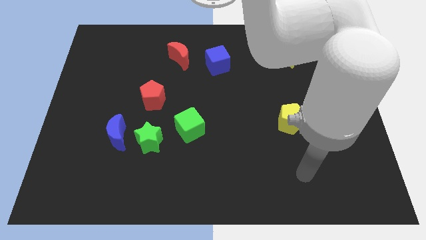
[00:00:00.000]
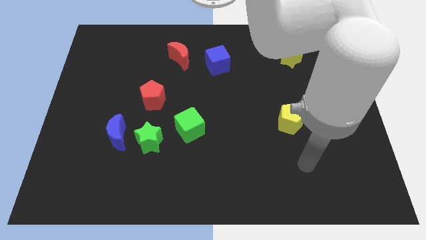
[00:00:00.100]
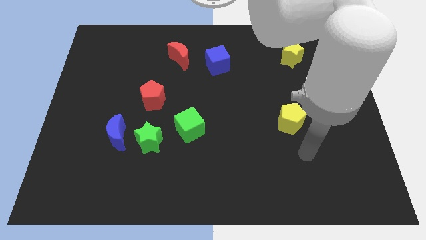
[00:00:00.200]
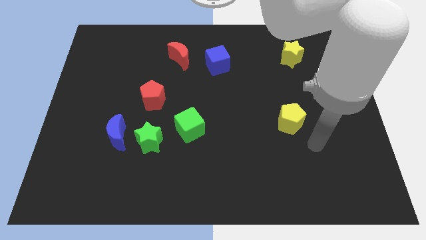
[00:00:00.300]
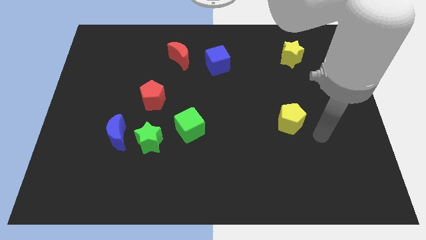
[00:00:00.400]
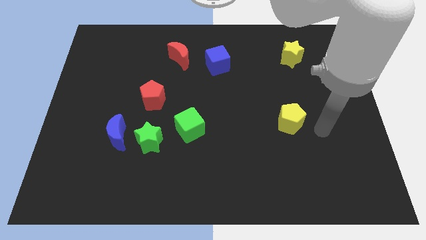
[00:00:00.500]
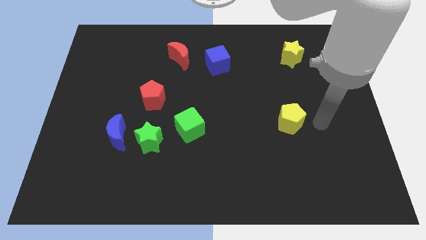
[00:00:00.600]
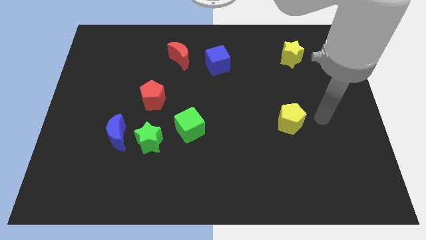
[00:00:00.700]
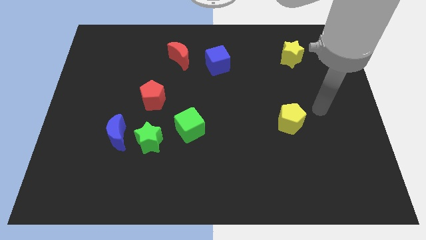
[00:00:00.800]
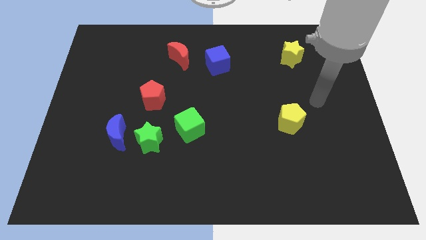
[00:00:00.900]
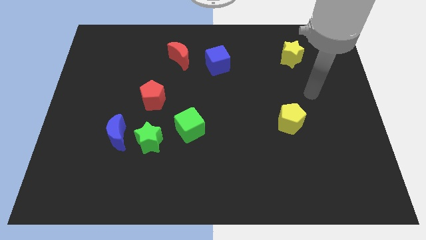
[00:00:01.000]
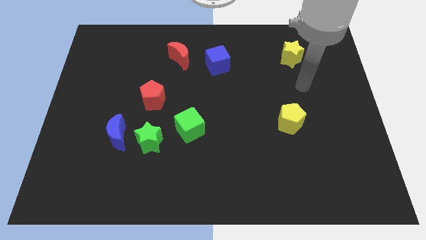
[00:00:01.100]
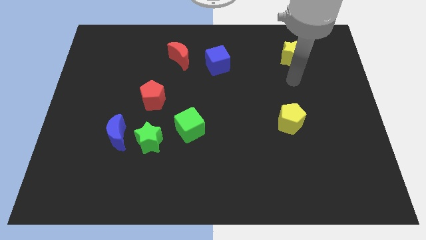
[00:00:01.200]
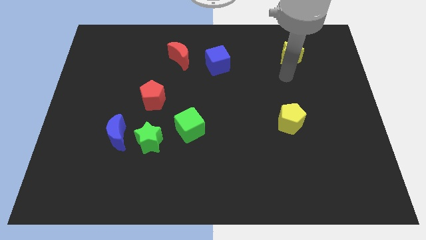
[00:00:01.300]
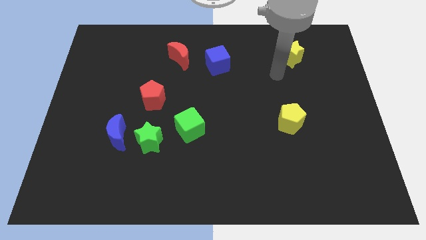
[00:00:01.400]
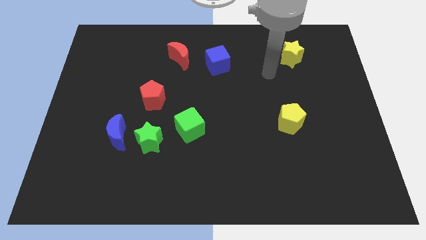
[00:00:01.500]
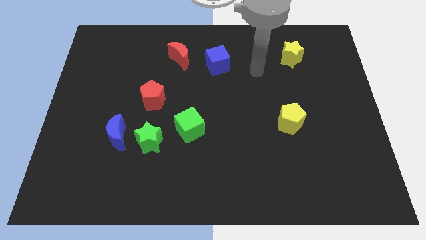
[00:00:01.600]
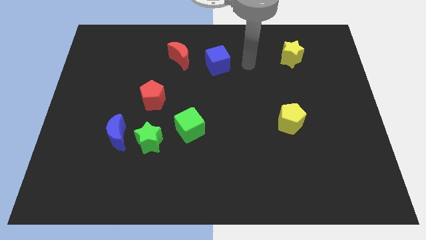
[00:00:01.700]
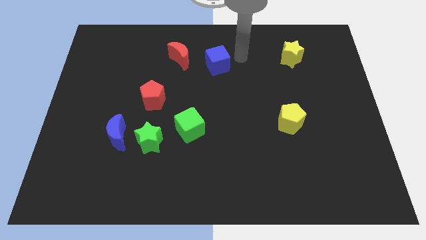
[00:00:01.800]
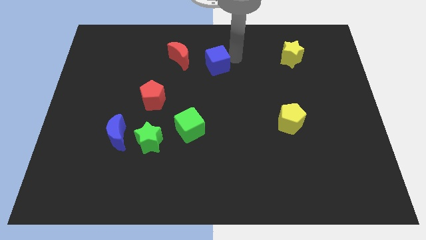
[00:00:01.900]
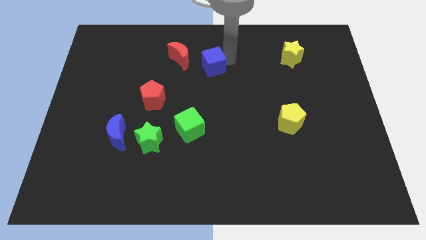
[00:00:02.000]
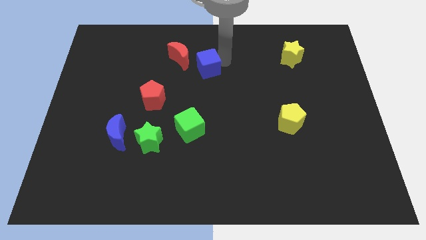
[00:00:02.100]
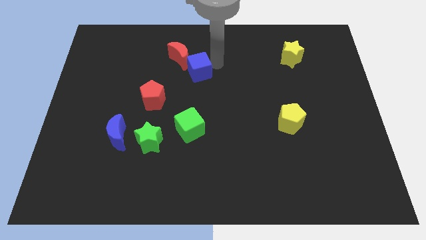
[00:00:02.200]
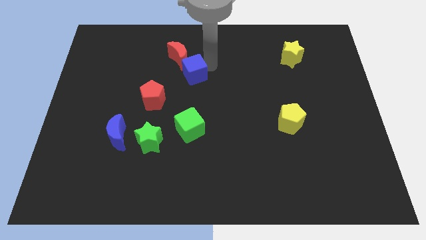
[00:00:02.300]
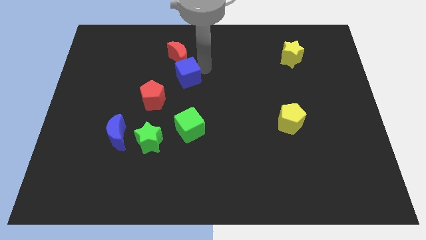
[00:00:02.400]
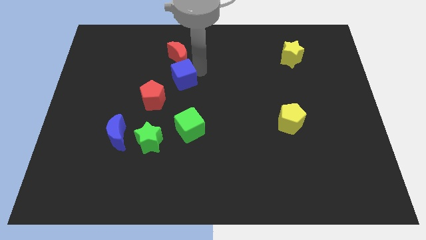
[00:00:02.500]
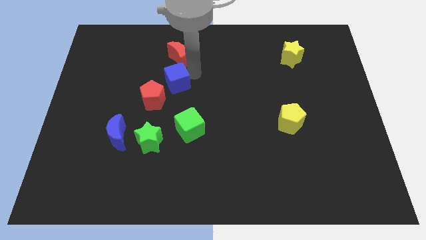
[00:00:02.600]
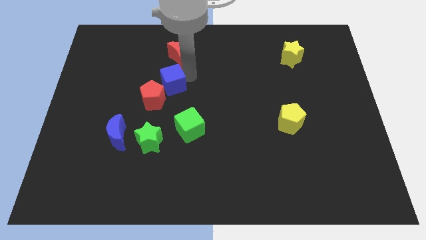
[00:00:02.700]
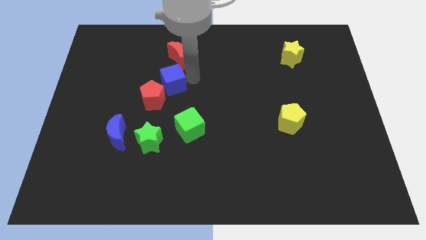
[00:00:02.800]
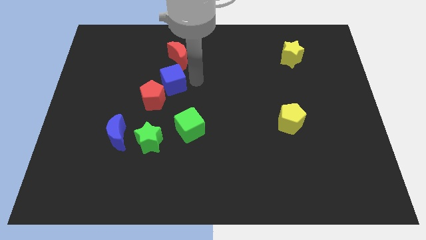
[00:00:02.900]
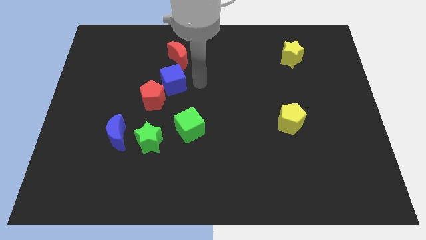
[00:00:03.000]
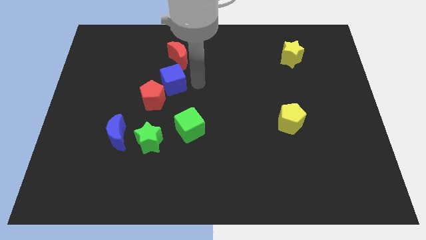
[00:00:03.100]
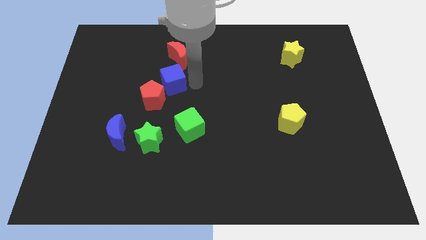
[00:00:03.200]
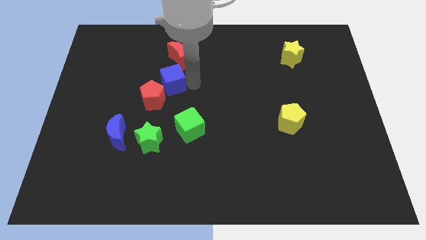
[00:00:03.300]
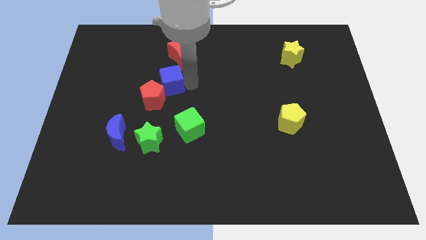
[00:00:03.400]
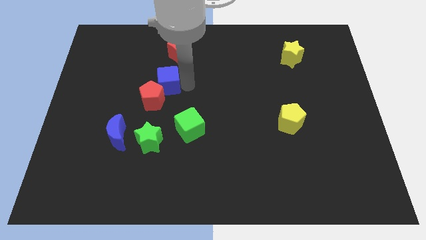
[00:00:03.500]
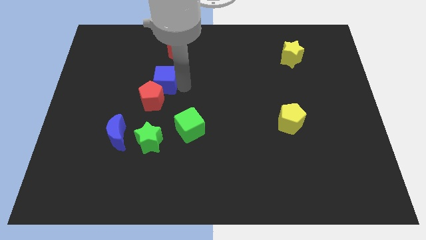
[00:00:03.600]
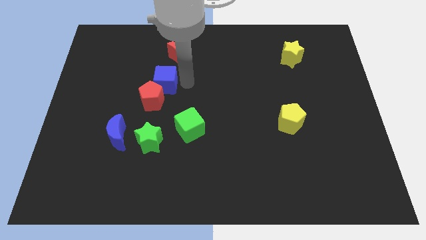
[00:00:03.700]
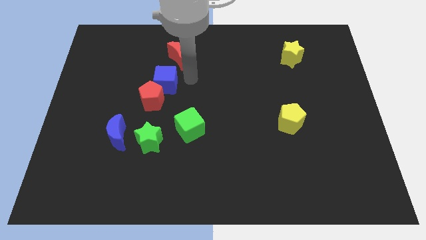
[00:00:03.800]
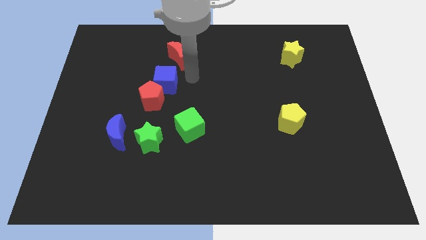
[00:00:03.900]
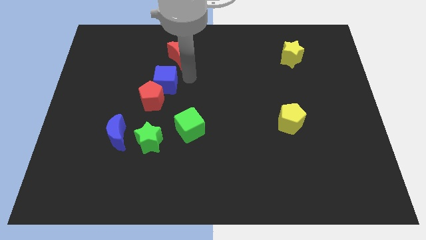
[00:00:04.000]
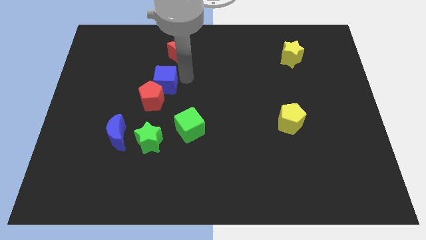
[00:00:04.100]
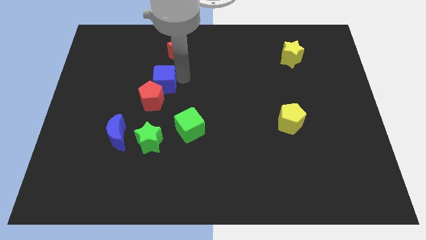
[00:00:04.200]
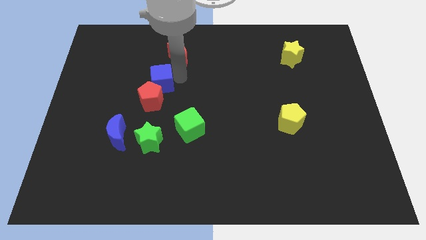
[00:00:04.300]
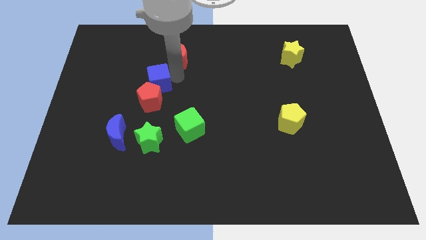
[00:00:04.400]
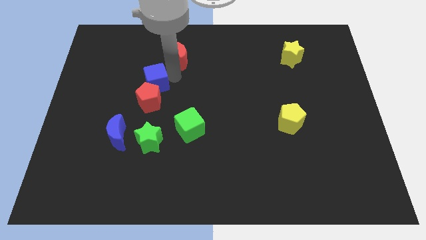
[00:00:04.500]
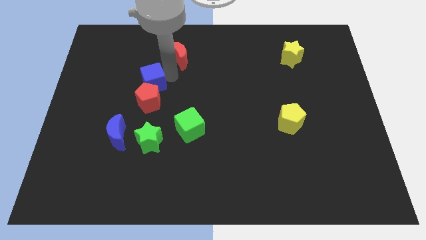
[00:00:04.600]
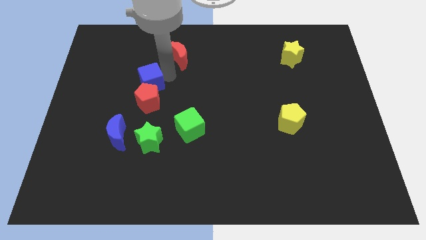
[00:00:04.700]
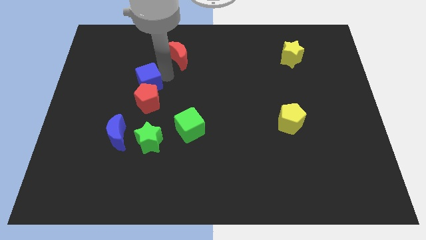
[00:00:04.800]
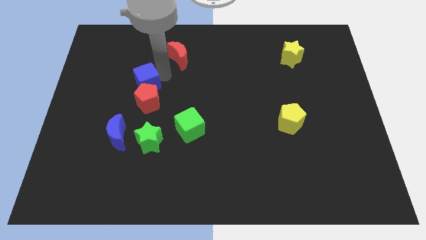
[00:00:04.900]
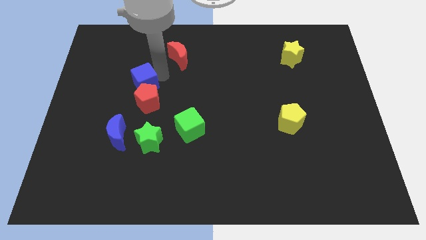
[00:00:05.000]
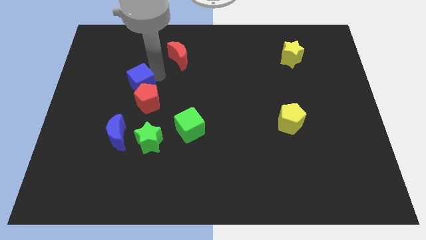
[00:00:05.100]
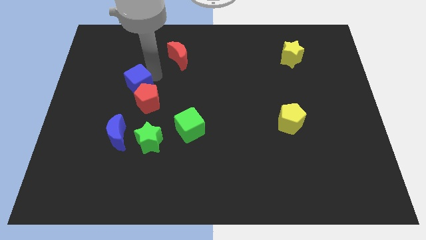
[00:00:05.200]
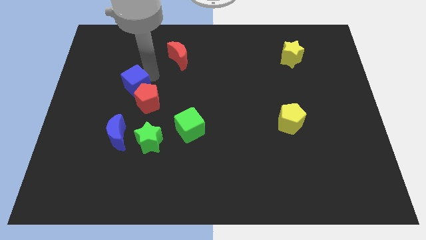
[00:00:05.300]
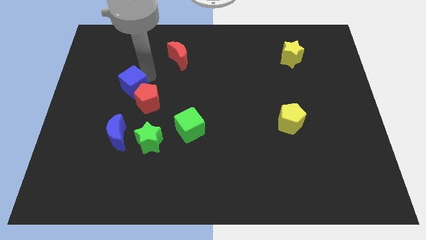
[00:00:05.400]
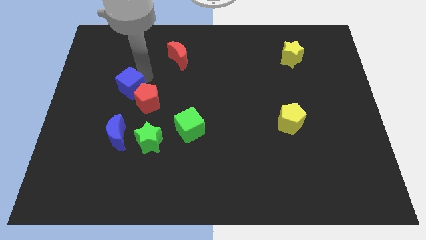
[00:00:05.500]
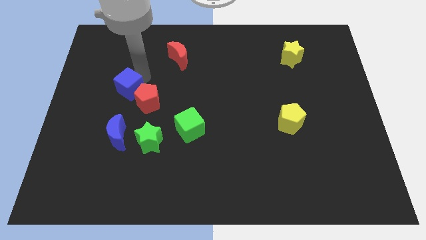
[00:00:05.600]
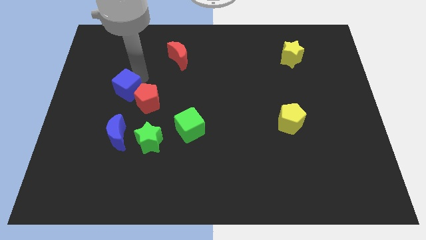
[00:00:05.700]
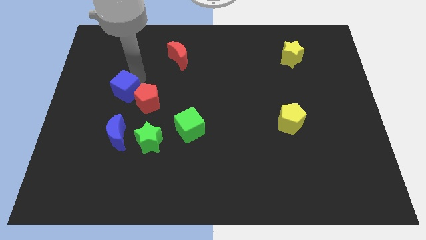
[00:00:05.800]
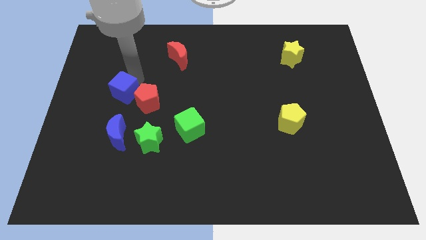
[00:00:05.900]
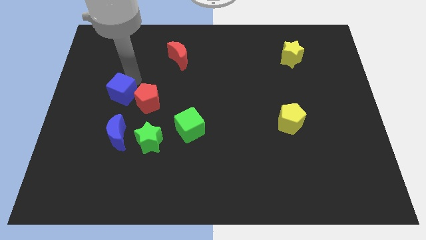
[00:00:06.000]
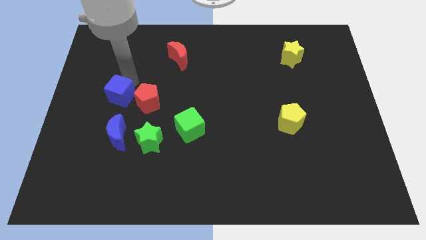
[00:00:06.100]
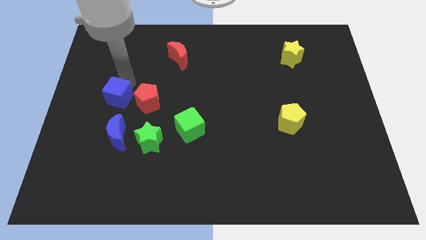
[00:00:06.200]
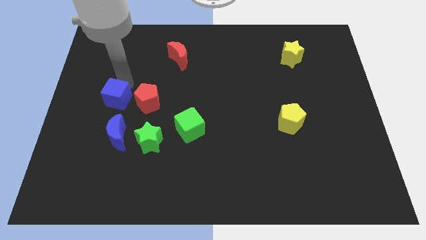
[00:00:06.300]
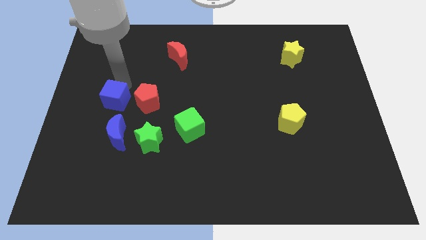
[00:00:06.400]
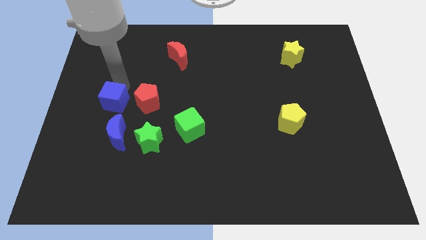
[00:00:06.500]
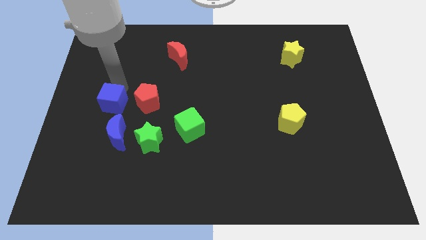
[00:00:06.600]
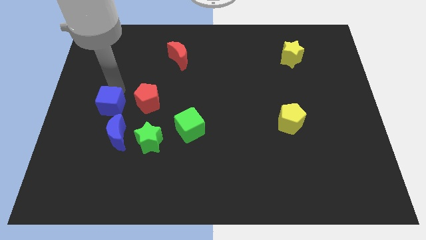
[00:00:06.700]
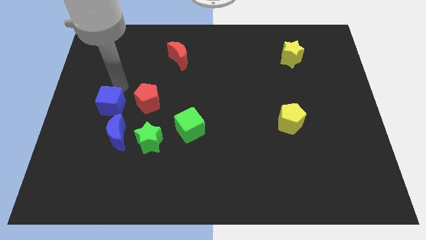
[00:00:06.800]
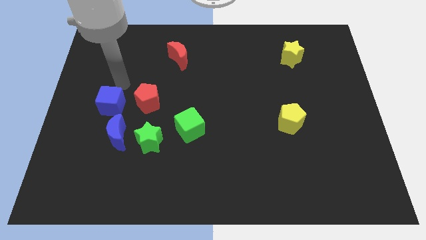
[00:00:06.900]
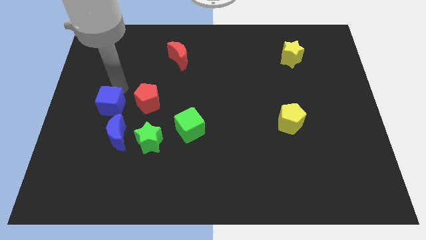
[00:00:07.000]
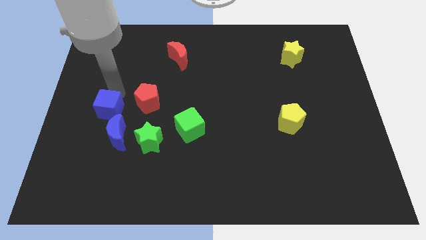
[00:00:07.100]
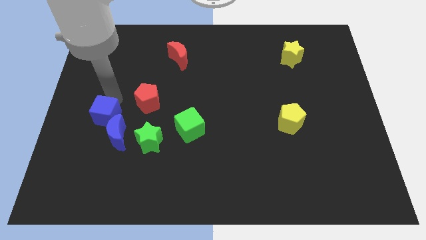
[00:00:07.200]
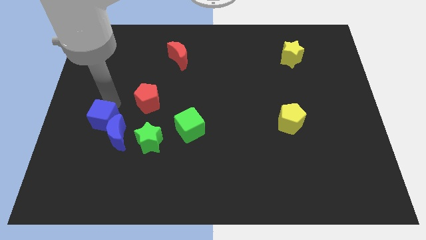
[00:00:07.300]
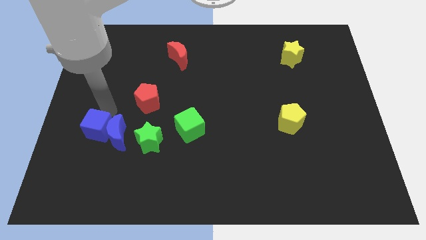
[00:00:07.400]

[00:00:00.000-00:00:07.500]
move the blue cube diagonally down and to the left of the blue moon

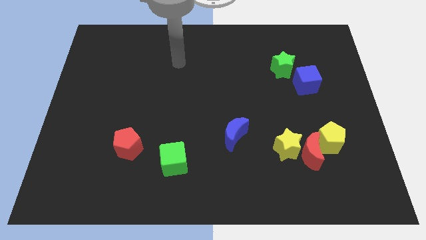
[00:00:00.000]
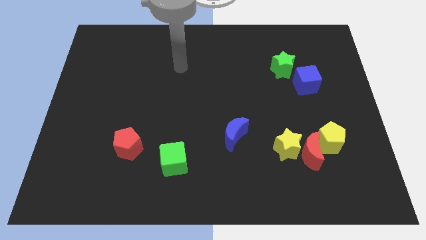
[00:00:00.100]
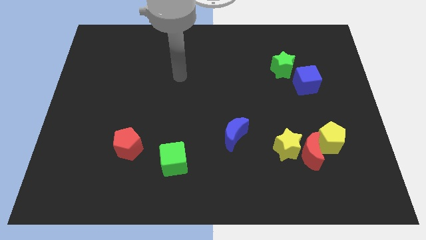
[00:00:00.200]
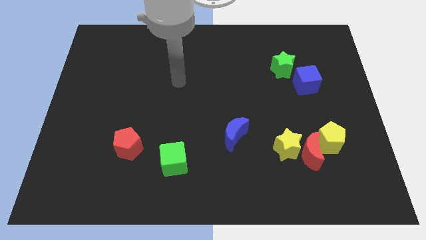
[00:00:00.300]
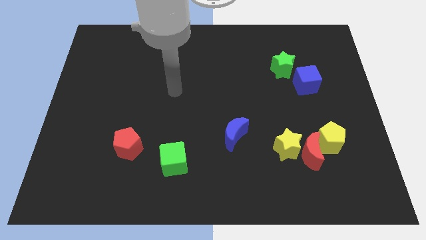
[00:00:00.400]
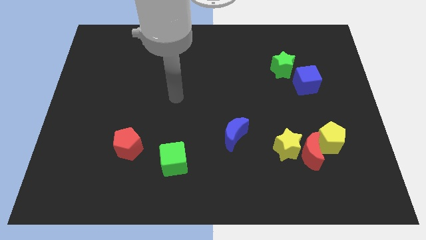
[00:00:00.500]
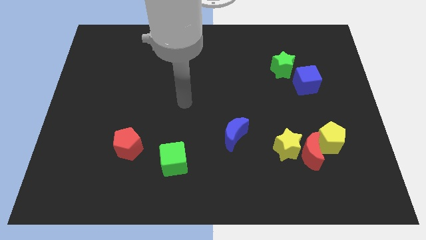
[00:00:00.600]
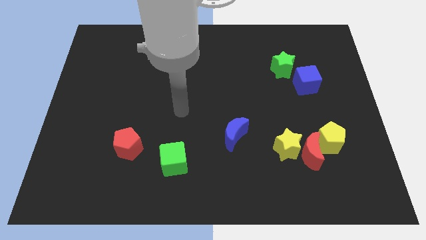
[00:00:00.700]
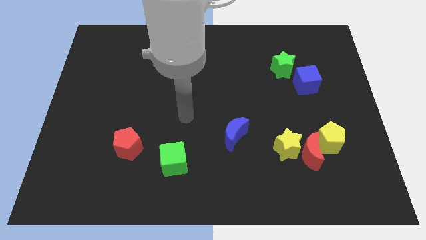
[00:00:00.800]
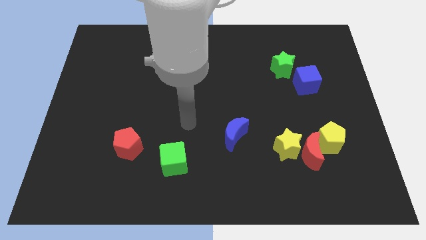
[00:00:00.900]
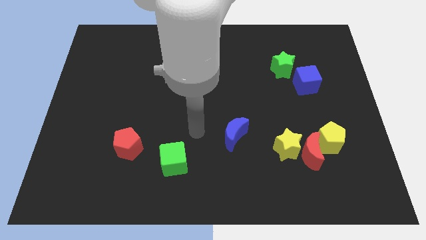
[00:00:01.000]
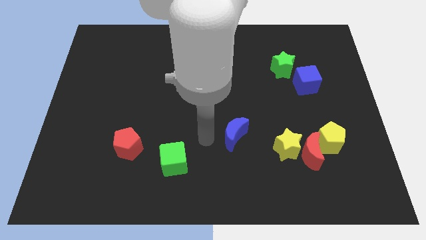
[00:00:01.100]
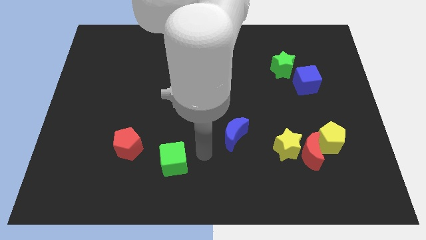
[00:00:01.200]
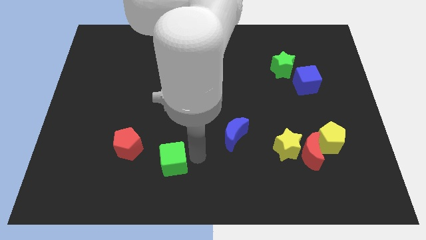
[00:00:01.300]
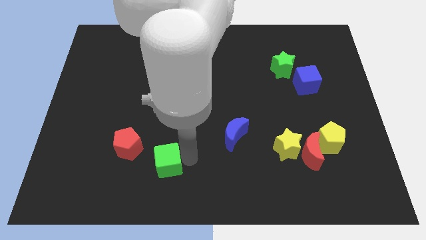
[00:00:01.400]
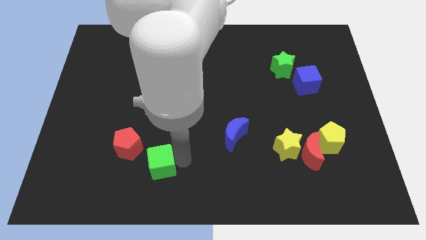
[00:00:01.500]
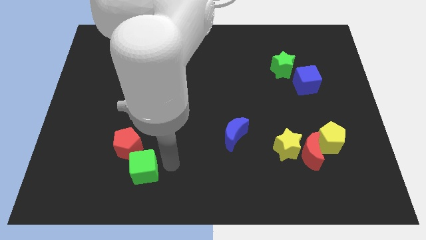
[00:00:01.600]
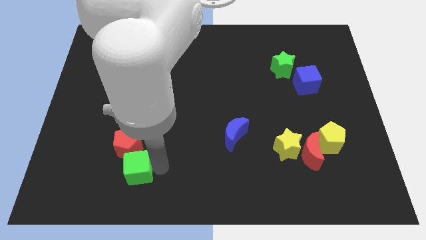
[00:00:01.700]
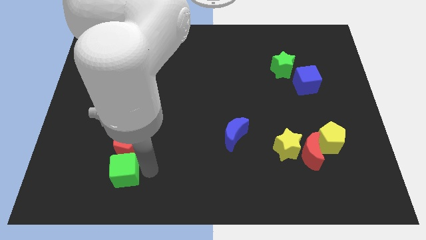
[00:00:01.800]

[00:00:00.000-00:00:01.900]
slide the green cube diagonally down and to the left of the red pentagon
